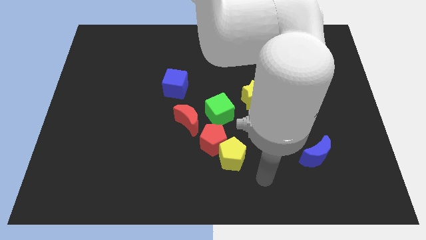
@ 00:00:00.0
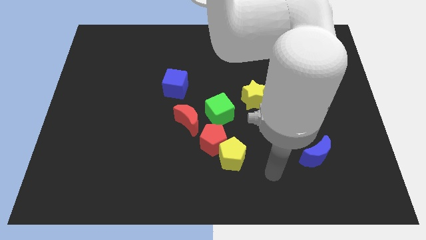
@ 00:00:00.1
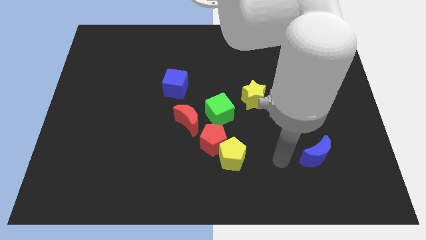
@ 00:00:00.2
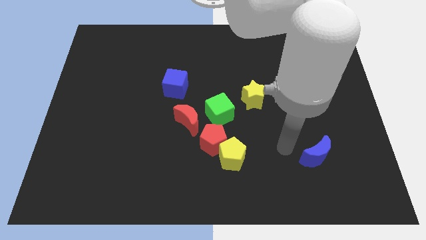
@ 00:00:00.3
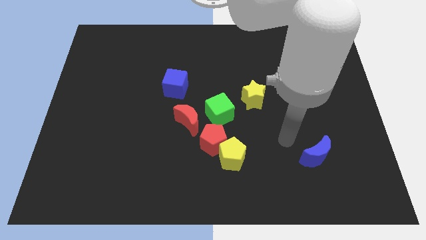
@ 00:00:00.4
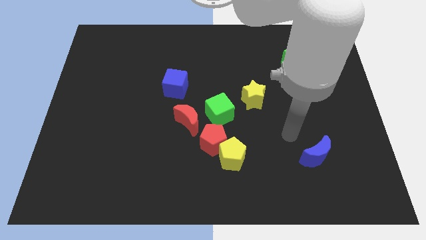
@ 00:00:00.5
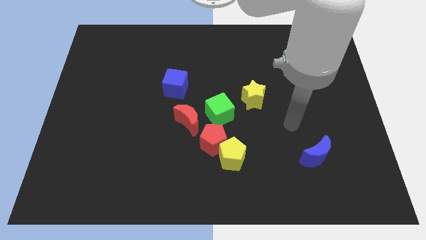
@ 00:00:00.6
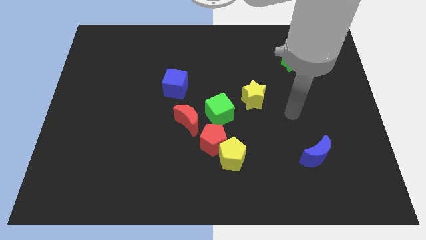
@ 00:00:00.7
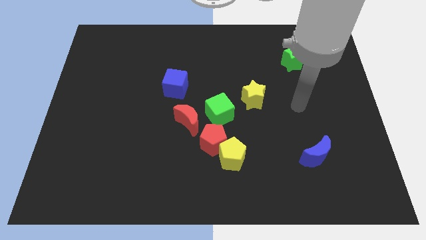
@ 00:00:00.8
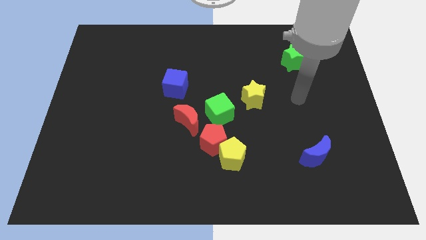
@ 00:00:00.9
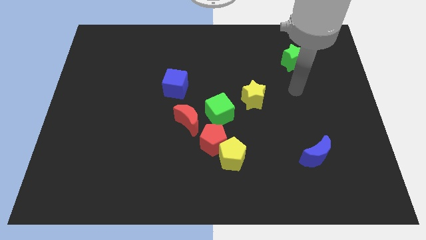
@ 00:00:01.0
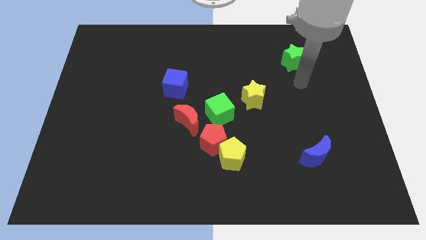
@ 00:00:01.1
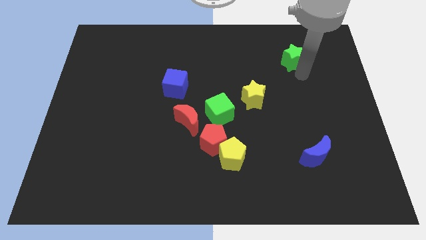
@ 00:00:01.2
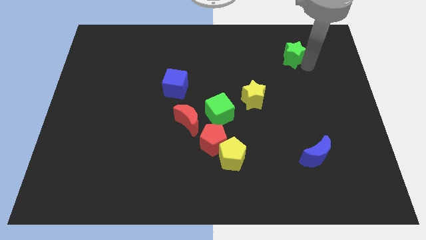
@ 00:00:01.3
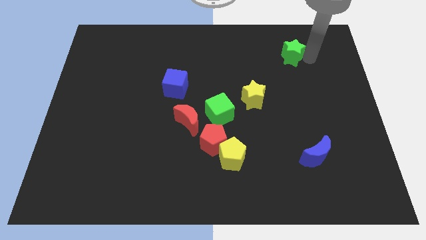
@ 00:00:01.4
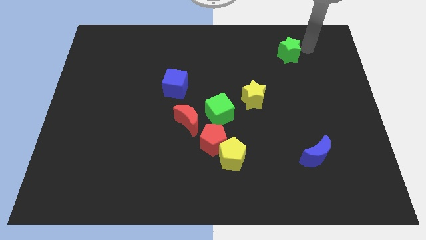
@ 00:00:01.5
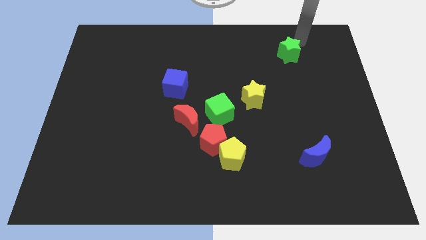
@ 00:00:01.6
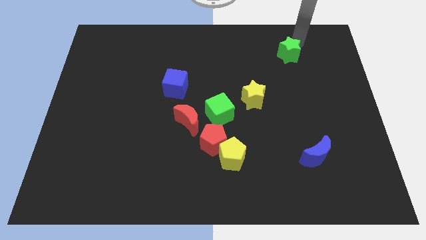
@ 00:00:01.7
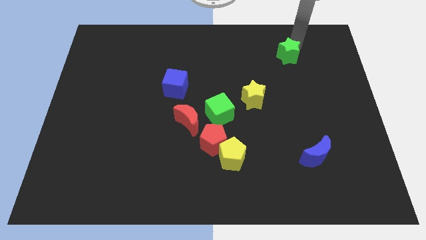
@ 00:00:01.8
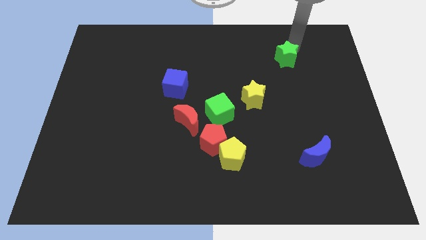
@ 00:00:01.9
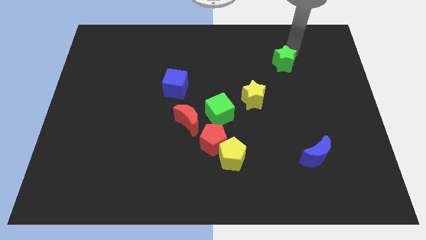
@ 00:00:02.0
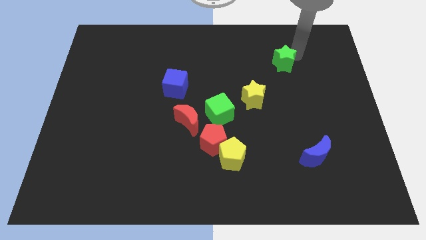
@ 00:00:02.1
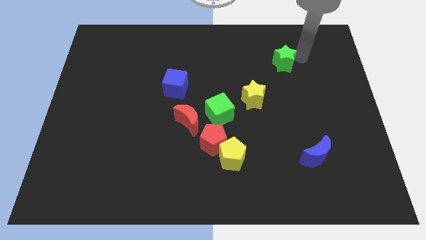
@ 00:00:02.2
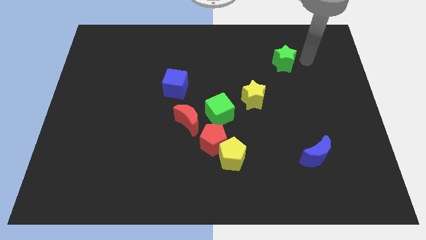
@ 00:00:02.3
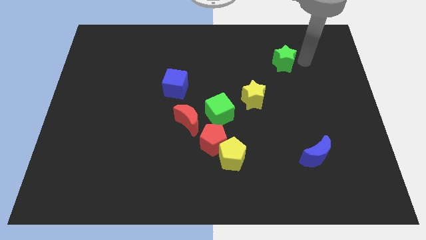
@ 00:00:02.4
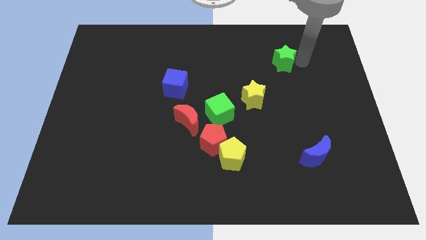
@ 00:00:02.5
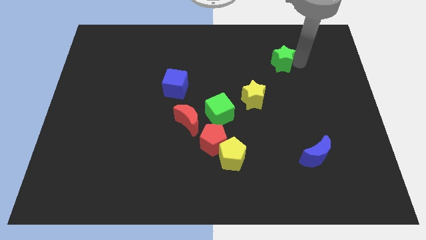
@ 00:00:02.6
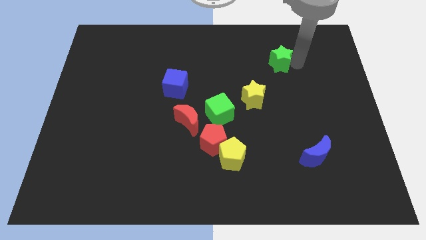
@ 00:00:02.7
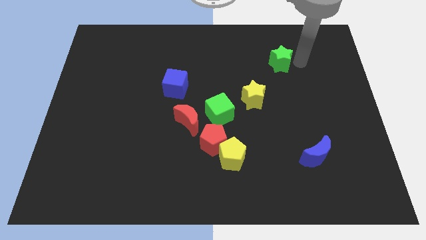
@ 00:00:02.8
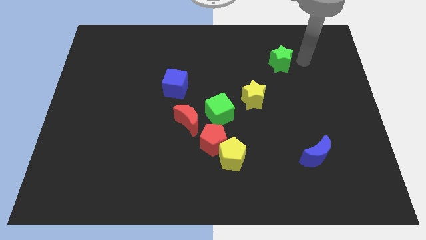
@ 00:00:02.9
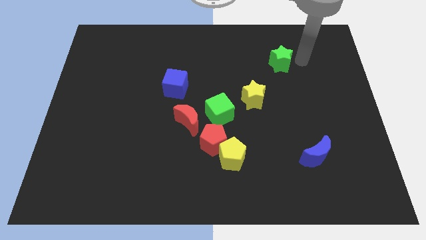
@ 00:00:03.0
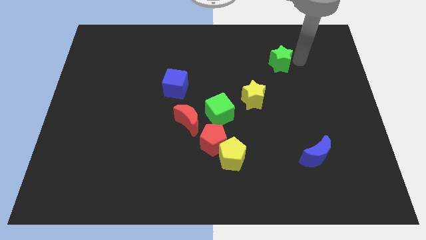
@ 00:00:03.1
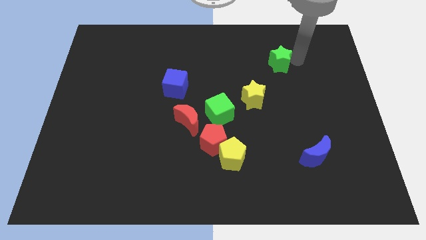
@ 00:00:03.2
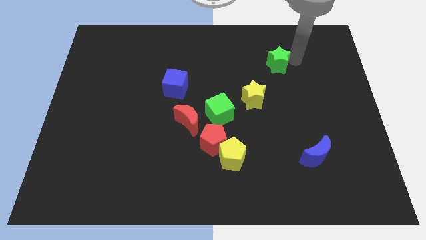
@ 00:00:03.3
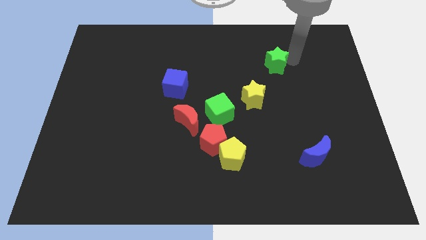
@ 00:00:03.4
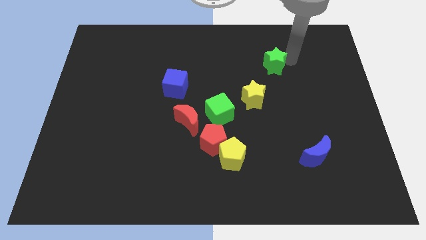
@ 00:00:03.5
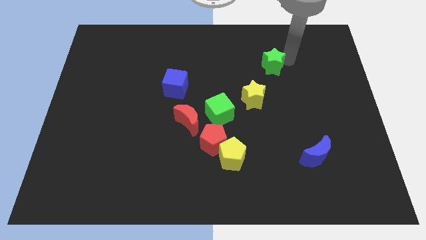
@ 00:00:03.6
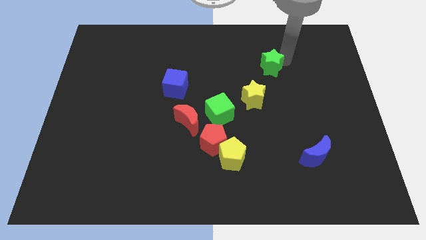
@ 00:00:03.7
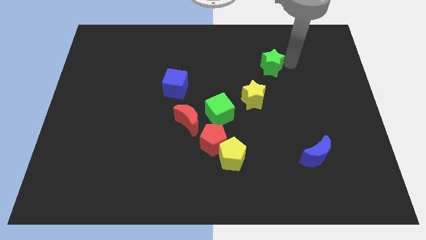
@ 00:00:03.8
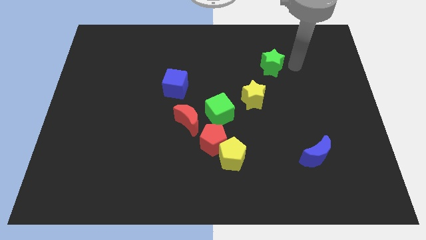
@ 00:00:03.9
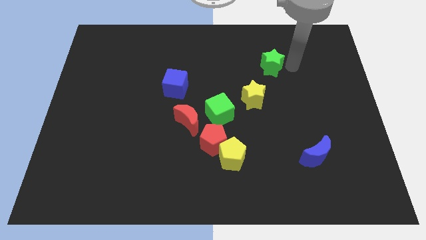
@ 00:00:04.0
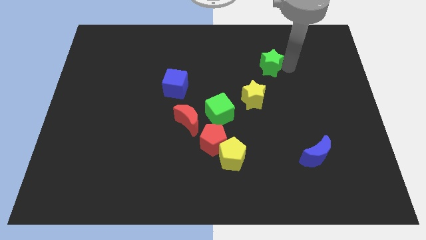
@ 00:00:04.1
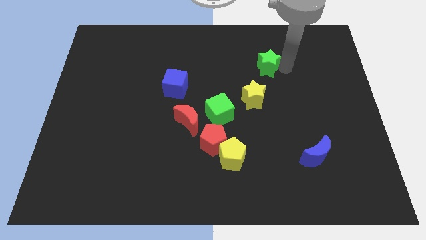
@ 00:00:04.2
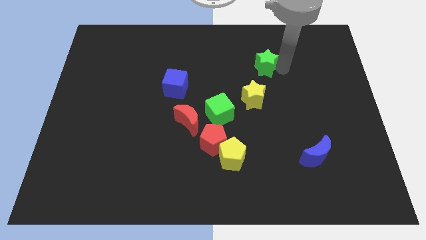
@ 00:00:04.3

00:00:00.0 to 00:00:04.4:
slide the green star left a little

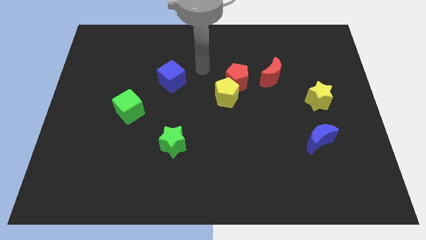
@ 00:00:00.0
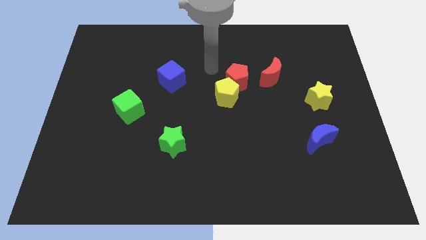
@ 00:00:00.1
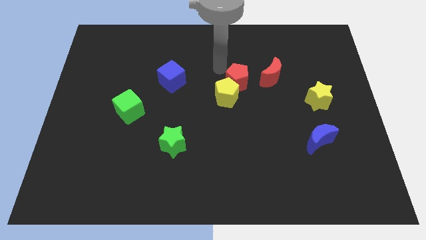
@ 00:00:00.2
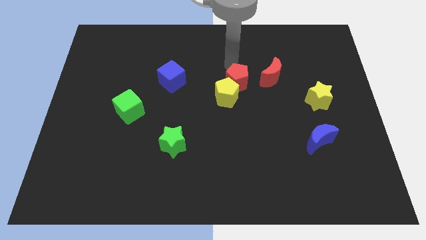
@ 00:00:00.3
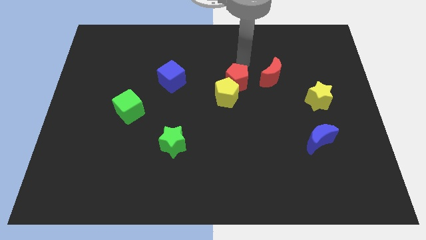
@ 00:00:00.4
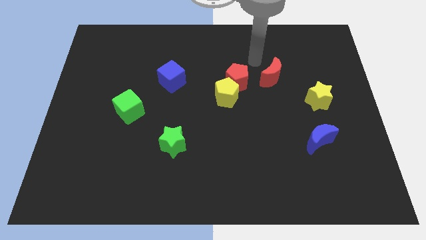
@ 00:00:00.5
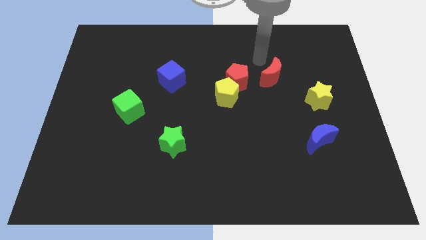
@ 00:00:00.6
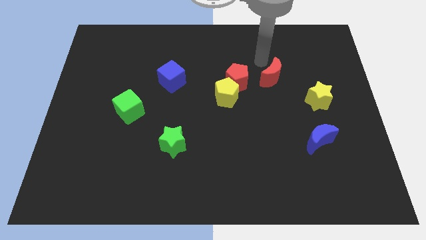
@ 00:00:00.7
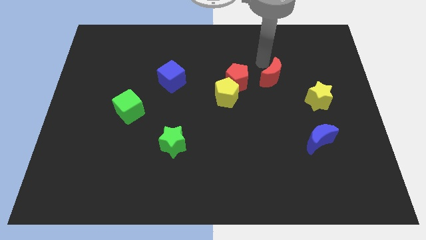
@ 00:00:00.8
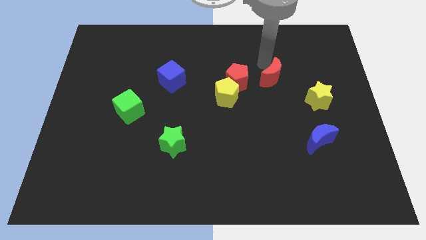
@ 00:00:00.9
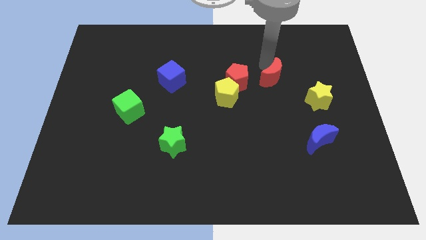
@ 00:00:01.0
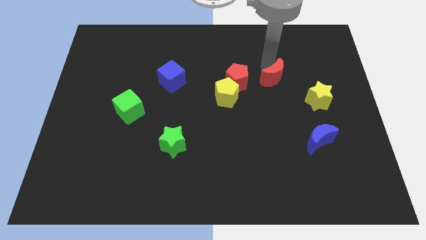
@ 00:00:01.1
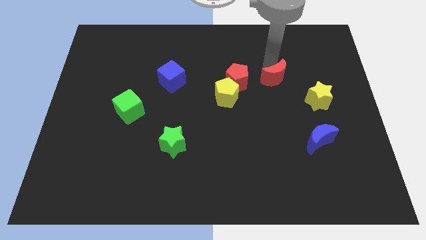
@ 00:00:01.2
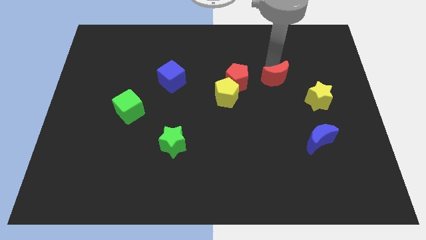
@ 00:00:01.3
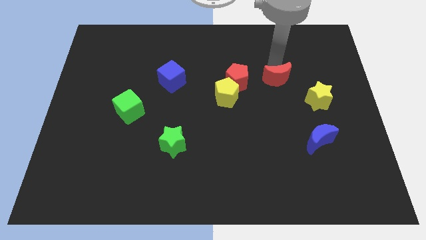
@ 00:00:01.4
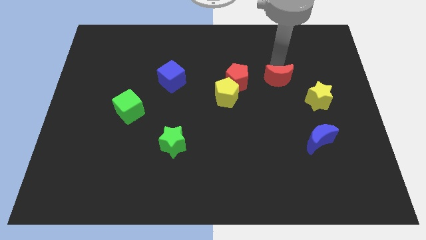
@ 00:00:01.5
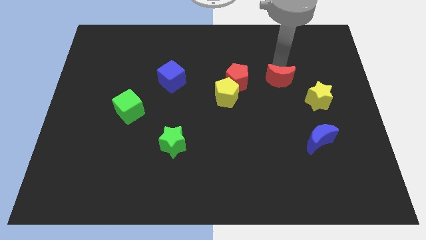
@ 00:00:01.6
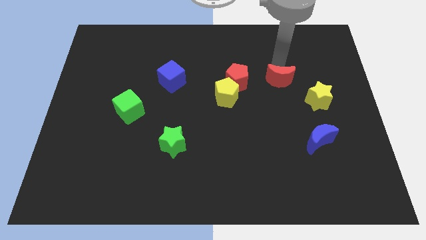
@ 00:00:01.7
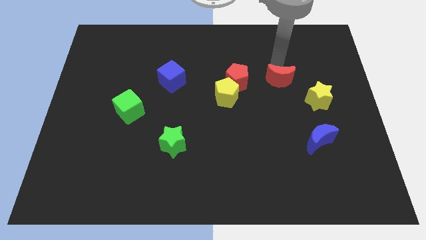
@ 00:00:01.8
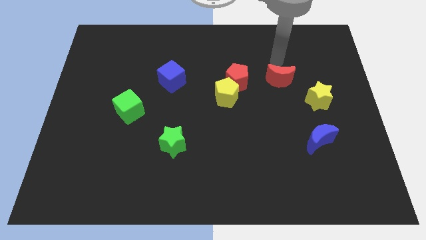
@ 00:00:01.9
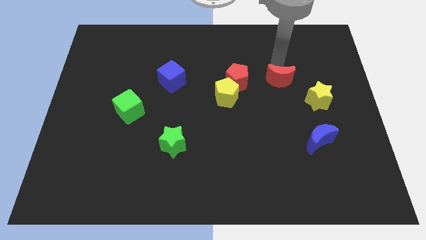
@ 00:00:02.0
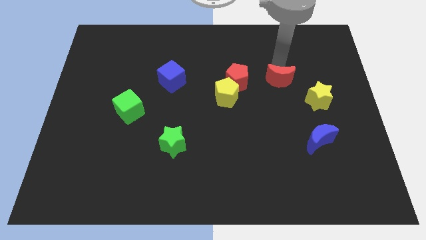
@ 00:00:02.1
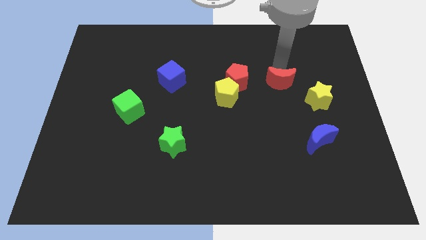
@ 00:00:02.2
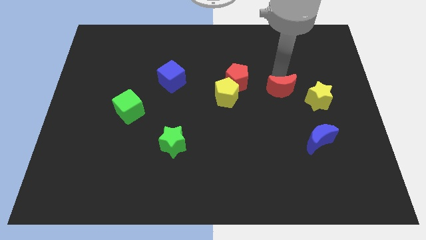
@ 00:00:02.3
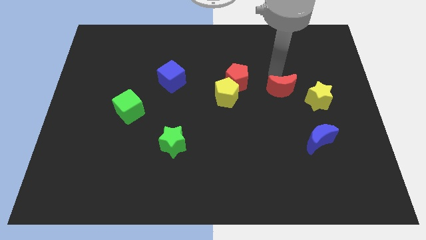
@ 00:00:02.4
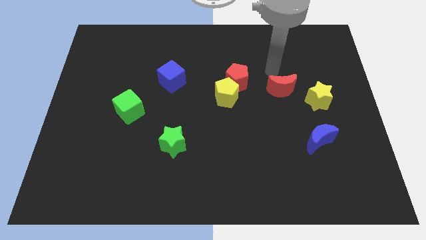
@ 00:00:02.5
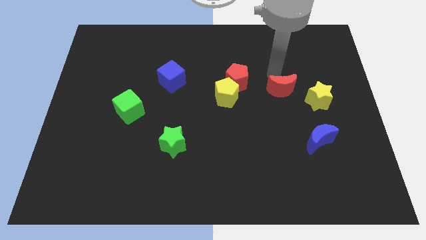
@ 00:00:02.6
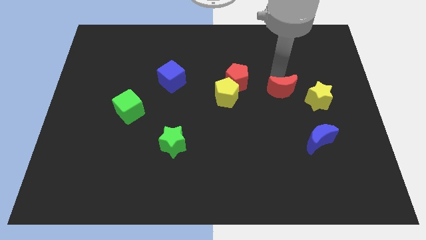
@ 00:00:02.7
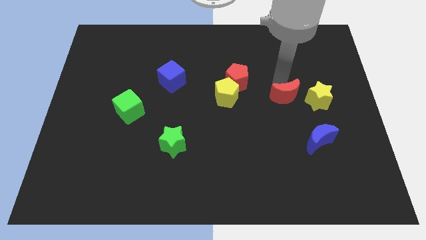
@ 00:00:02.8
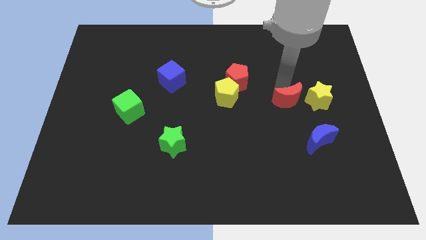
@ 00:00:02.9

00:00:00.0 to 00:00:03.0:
move the red moon diagonally downwards and to the right a little

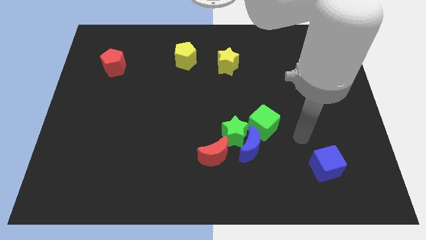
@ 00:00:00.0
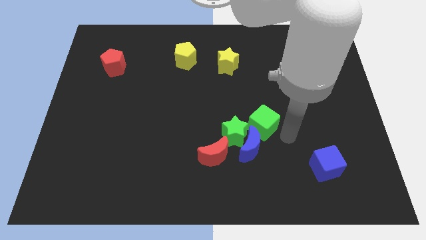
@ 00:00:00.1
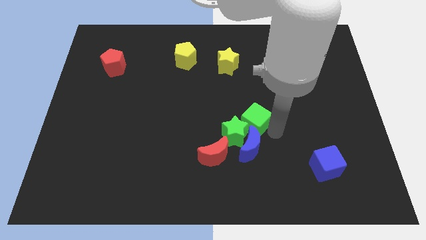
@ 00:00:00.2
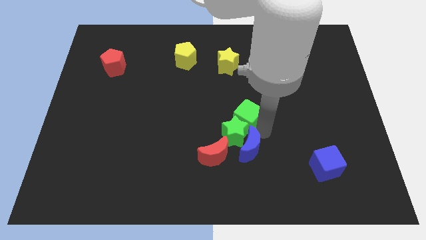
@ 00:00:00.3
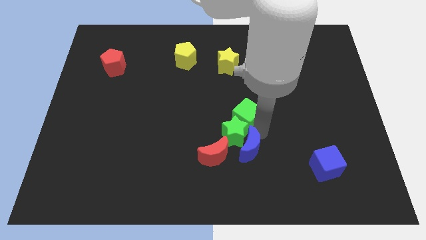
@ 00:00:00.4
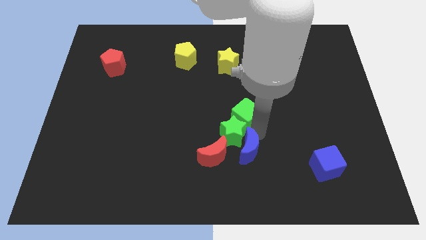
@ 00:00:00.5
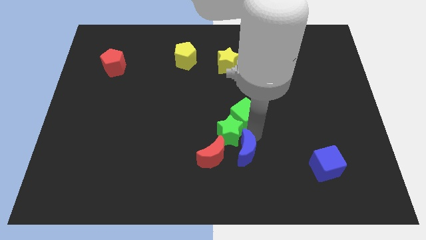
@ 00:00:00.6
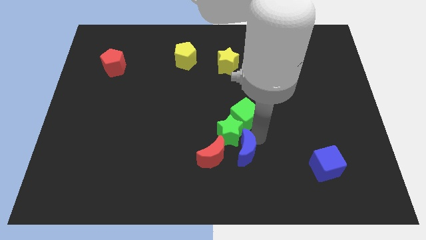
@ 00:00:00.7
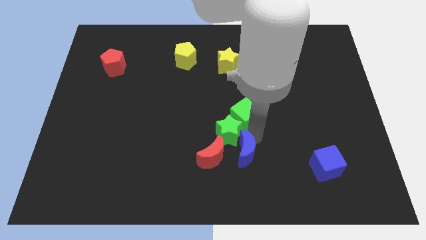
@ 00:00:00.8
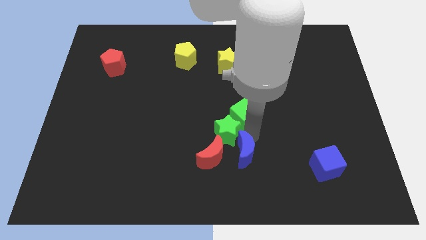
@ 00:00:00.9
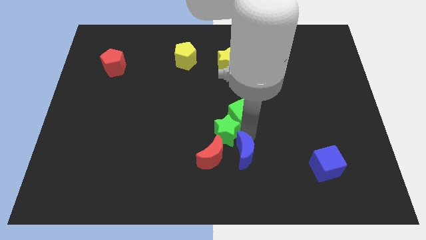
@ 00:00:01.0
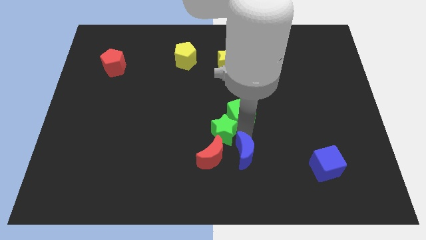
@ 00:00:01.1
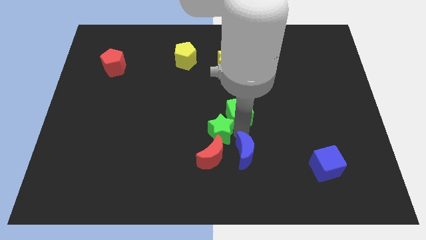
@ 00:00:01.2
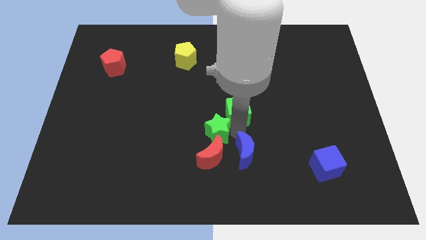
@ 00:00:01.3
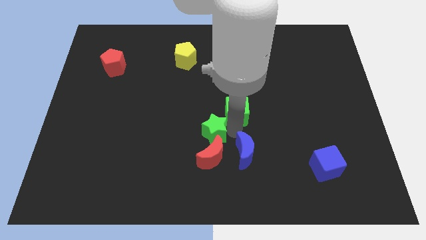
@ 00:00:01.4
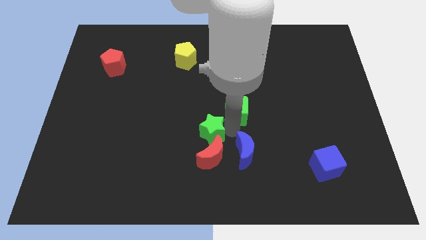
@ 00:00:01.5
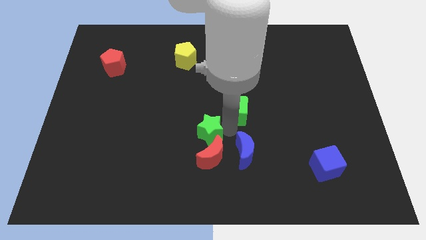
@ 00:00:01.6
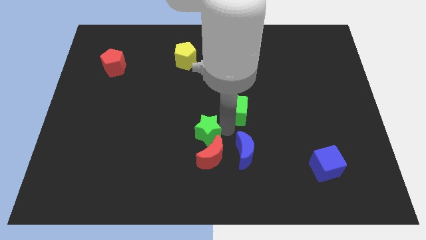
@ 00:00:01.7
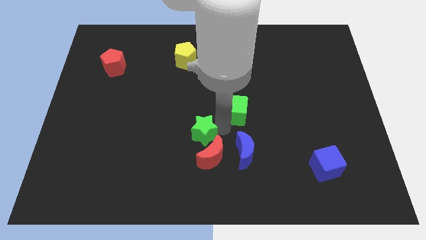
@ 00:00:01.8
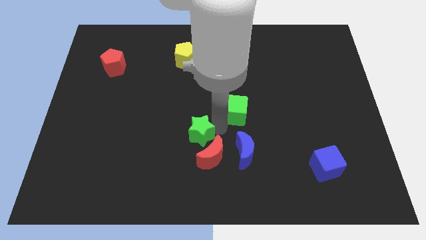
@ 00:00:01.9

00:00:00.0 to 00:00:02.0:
slide the green star a bit to the left
